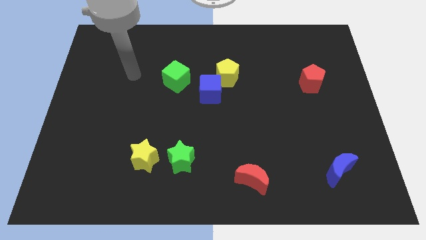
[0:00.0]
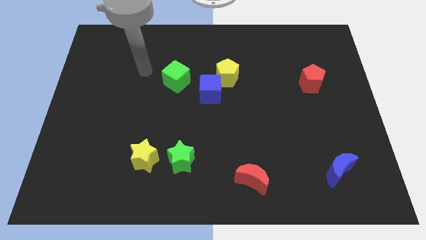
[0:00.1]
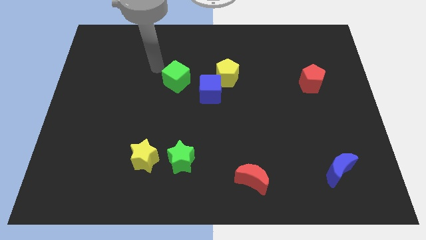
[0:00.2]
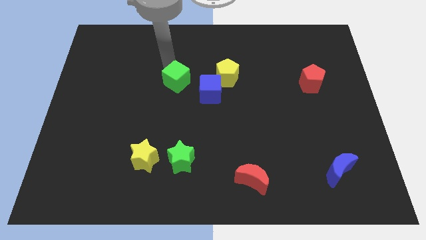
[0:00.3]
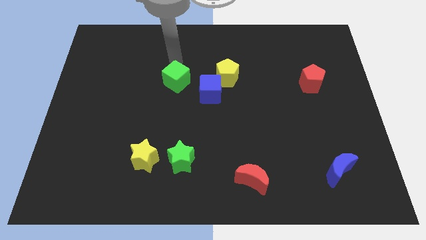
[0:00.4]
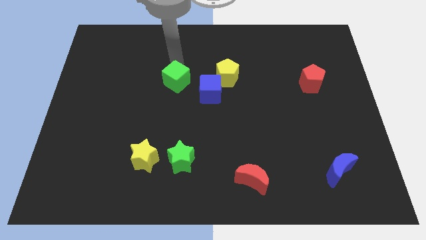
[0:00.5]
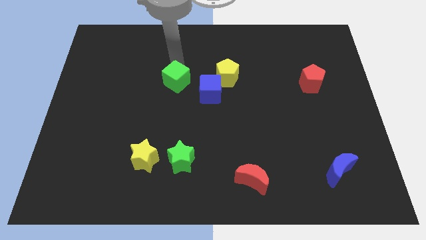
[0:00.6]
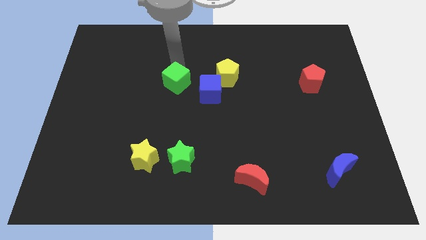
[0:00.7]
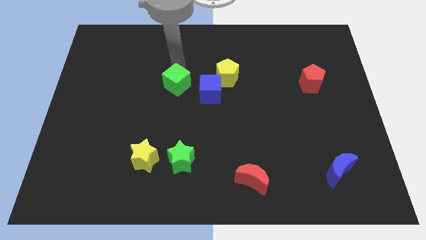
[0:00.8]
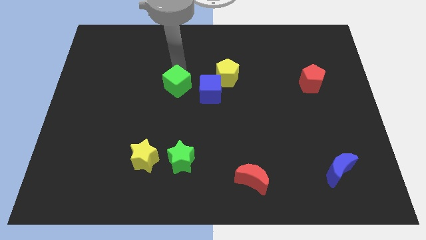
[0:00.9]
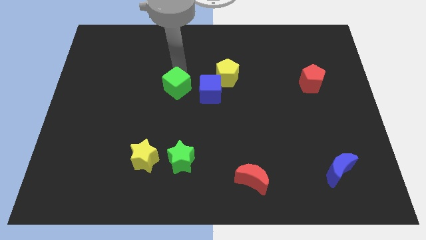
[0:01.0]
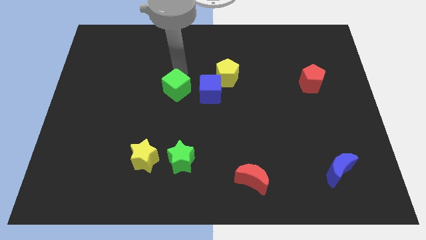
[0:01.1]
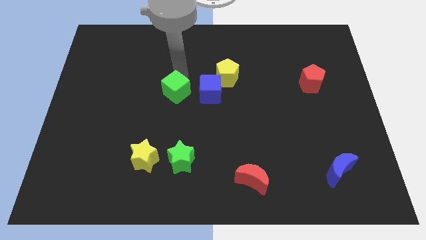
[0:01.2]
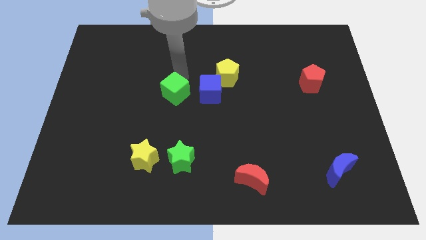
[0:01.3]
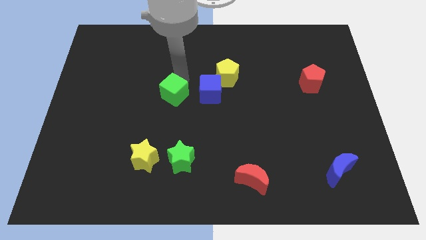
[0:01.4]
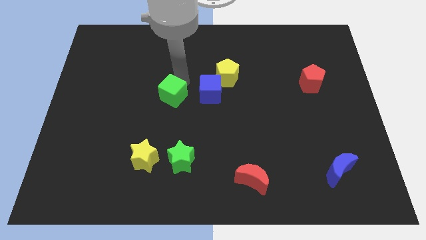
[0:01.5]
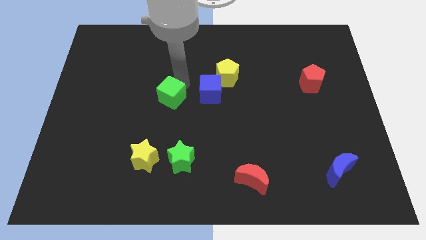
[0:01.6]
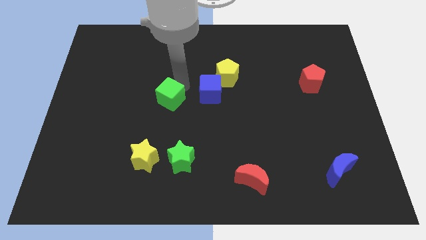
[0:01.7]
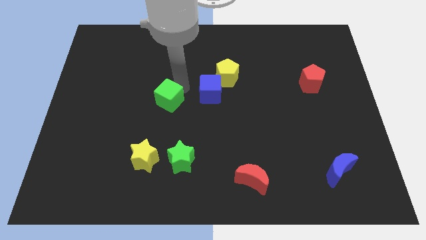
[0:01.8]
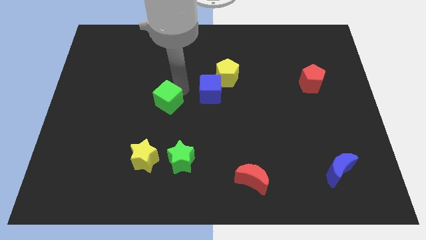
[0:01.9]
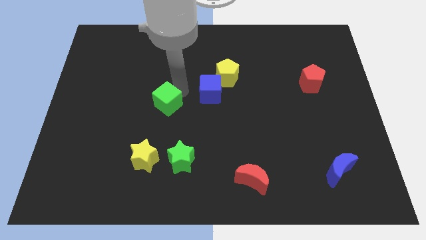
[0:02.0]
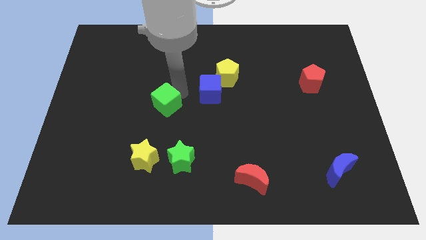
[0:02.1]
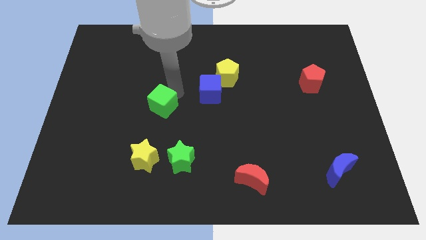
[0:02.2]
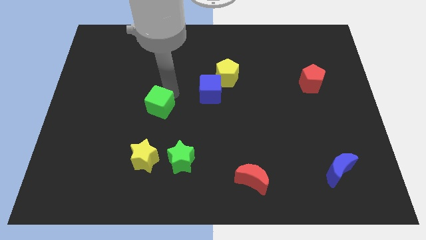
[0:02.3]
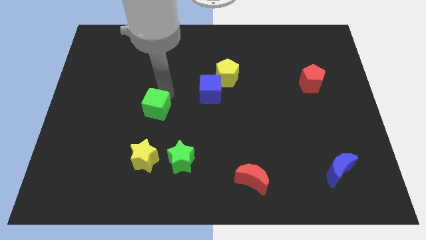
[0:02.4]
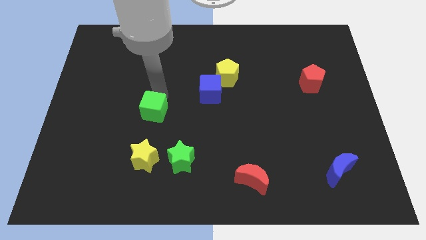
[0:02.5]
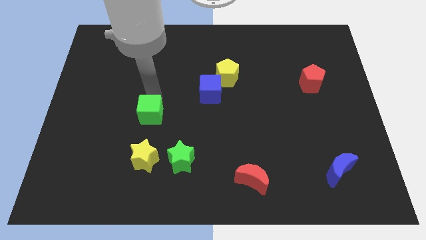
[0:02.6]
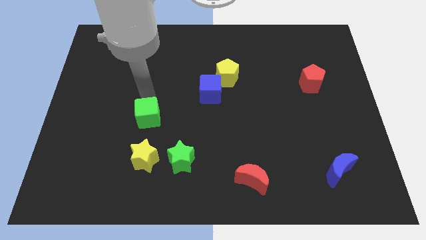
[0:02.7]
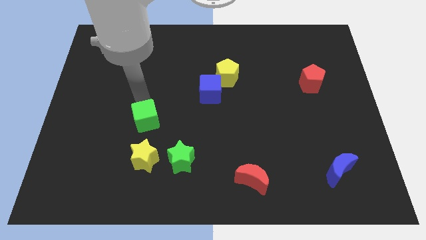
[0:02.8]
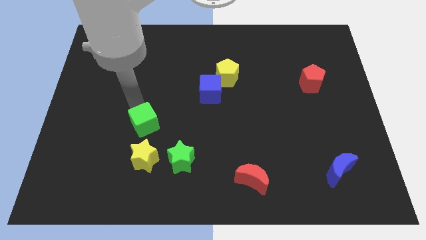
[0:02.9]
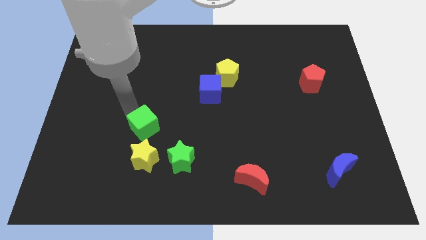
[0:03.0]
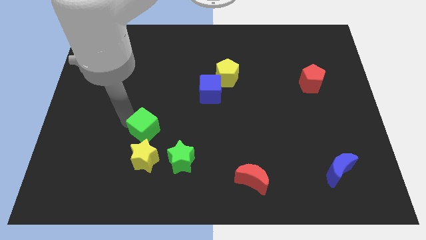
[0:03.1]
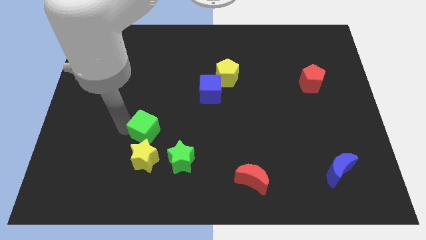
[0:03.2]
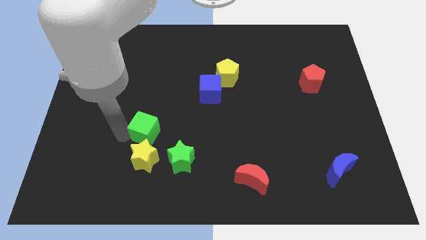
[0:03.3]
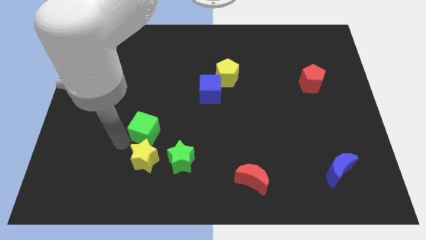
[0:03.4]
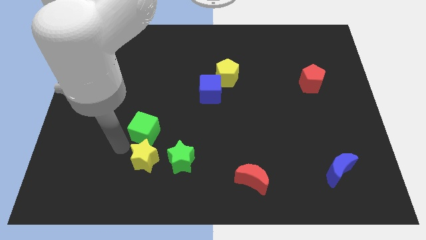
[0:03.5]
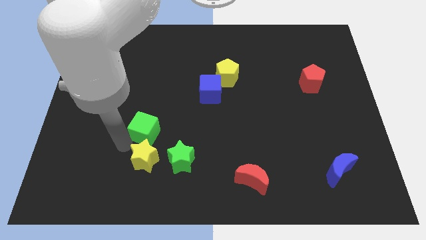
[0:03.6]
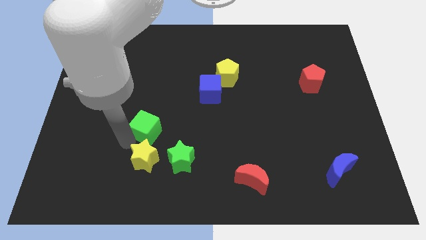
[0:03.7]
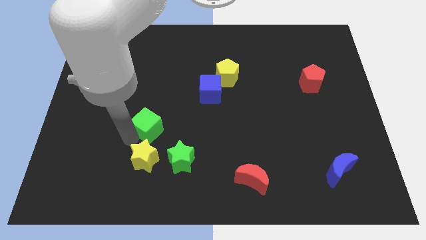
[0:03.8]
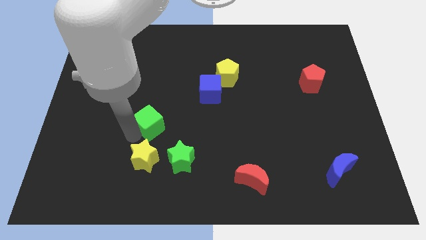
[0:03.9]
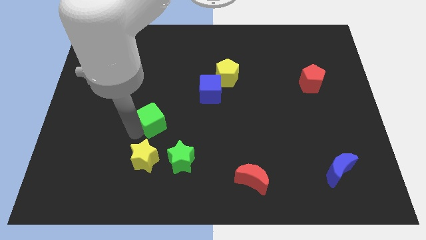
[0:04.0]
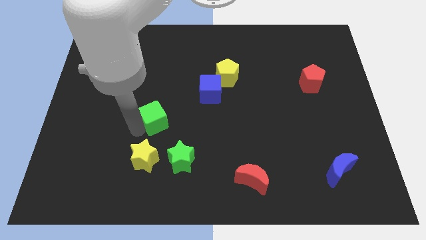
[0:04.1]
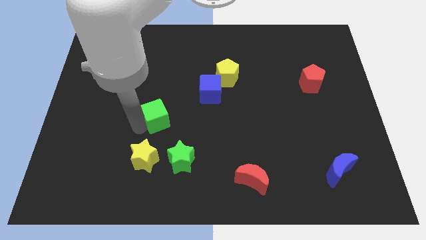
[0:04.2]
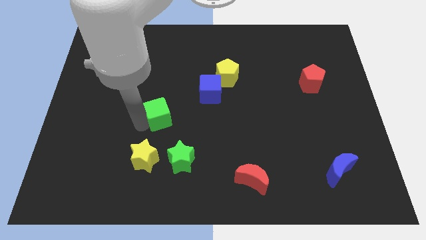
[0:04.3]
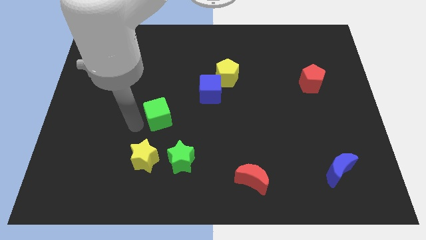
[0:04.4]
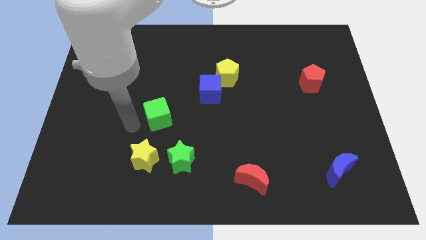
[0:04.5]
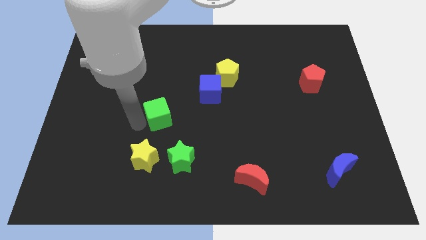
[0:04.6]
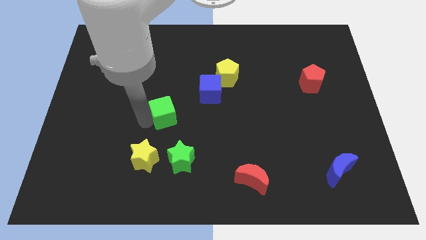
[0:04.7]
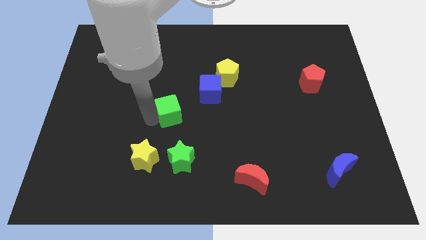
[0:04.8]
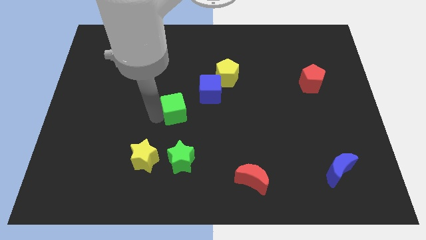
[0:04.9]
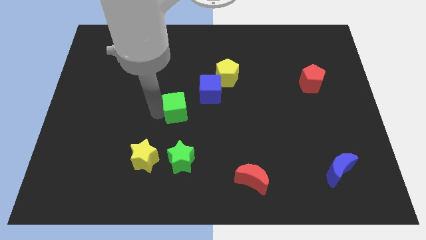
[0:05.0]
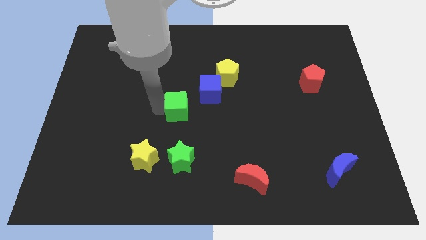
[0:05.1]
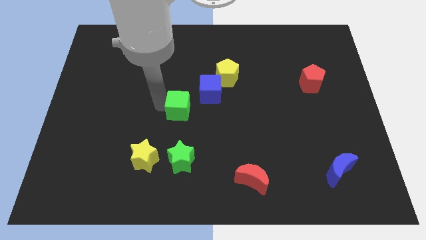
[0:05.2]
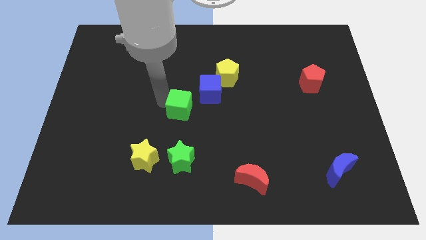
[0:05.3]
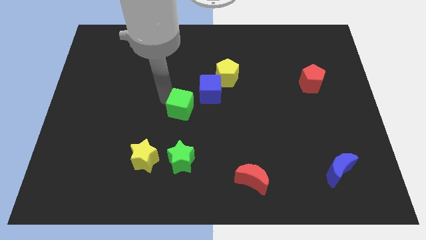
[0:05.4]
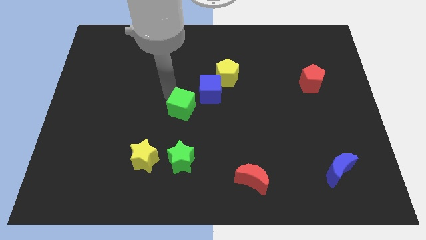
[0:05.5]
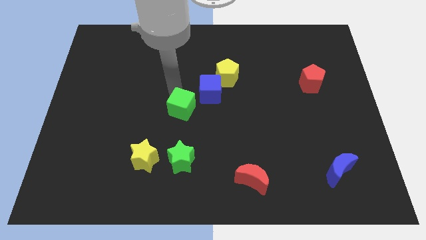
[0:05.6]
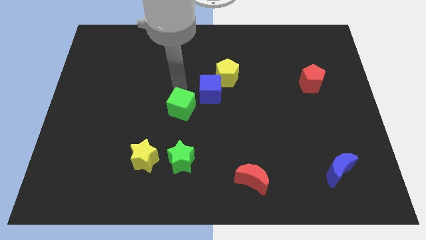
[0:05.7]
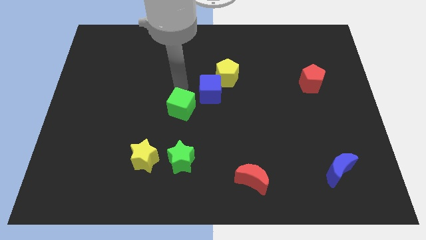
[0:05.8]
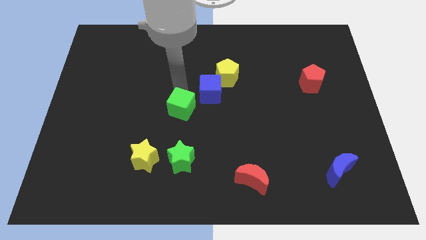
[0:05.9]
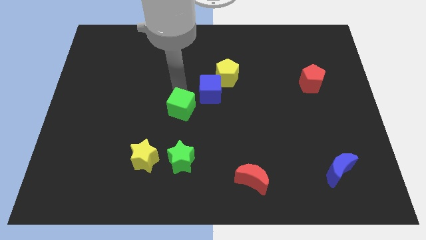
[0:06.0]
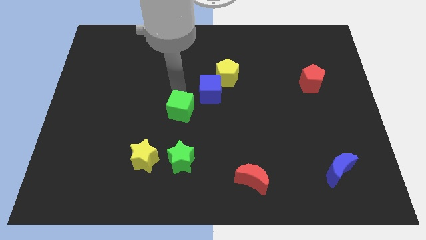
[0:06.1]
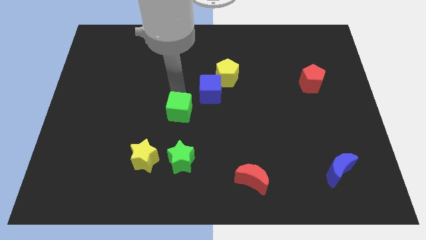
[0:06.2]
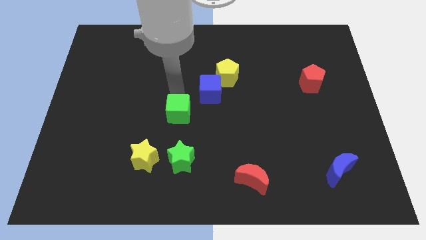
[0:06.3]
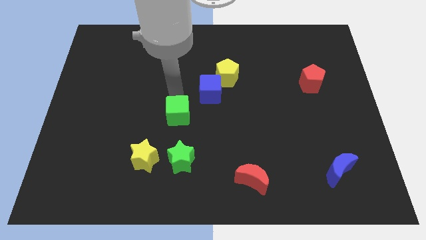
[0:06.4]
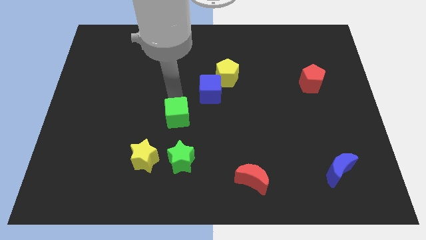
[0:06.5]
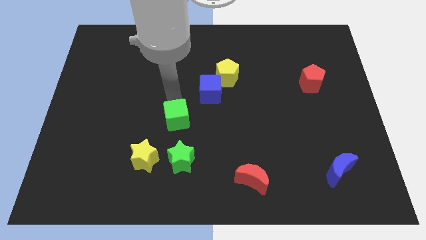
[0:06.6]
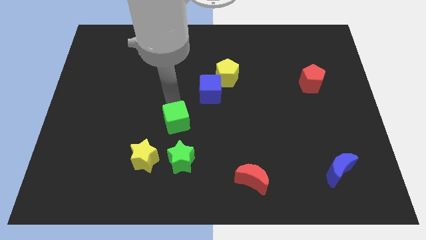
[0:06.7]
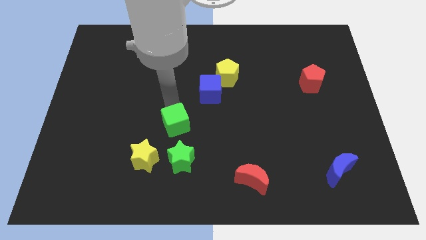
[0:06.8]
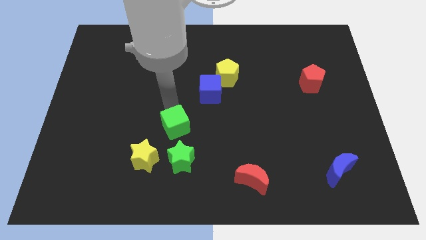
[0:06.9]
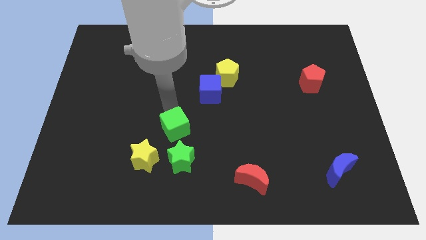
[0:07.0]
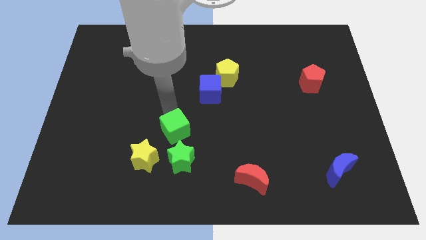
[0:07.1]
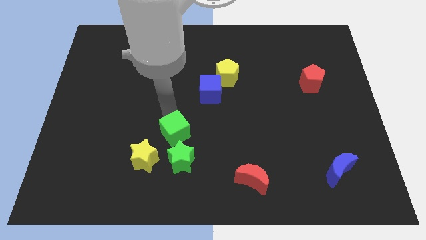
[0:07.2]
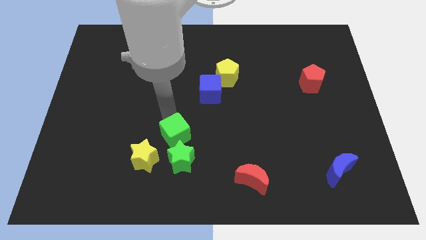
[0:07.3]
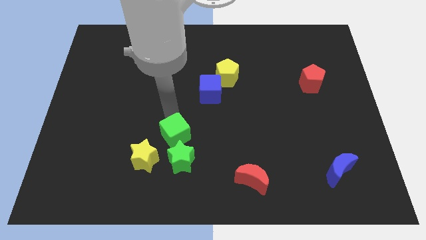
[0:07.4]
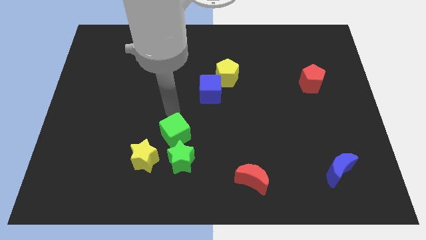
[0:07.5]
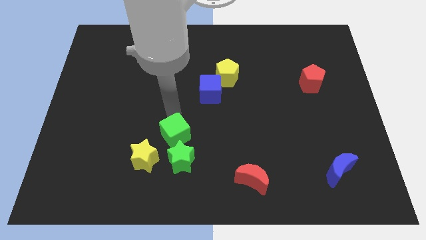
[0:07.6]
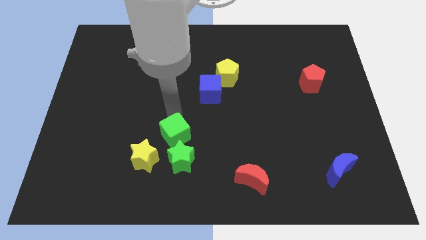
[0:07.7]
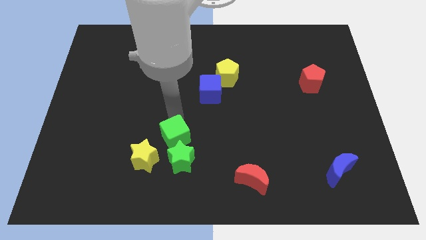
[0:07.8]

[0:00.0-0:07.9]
push the green cube next to the green star
